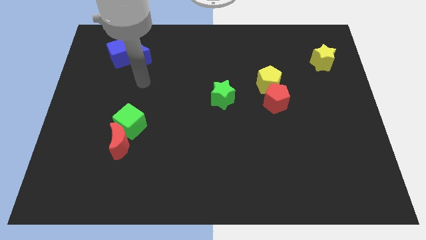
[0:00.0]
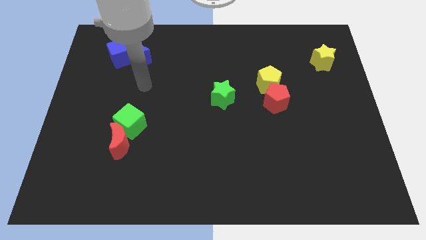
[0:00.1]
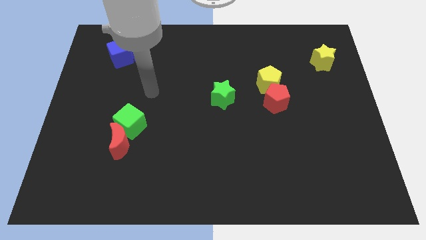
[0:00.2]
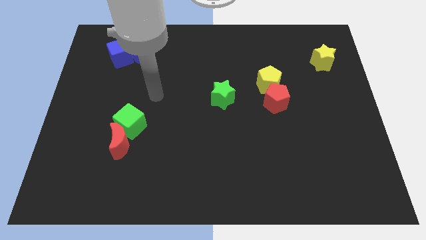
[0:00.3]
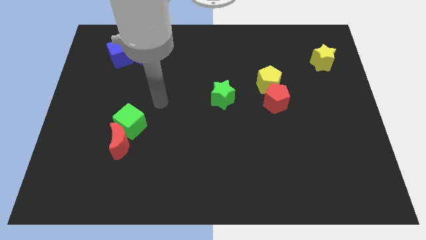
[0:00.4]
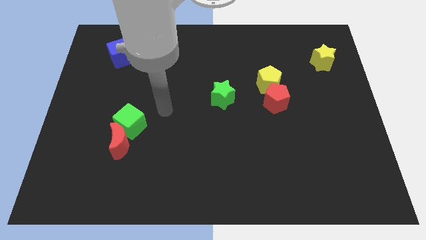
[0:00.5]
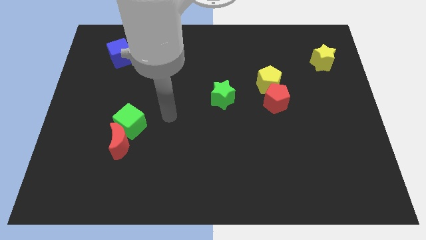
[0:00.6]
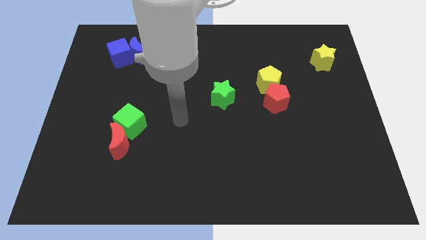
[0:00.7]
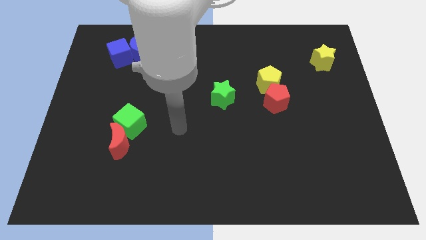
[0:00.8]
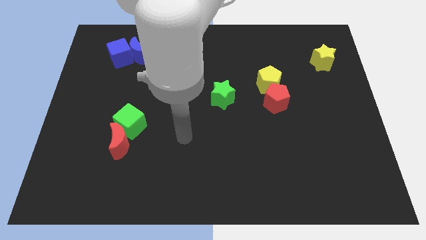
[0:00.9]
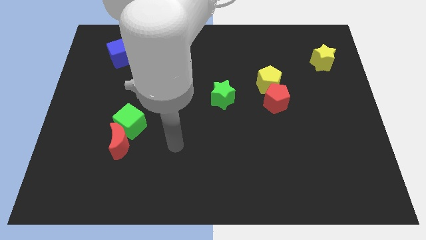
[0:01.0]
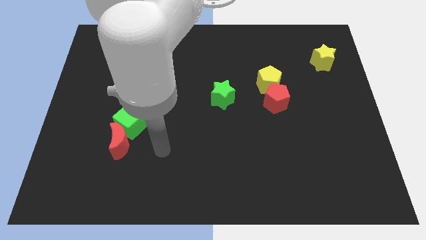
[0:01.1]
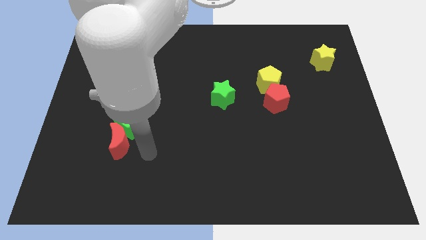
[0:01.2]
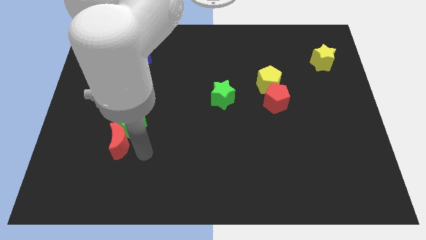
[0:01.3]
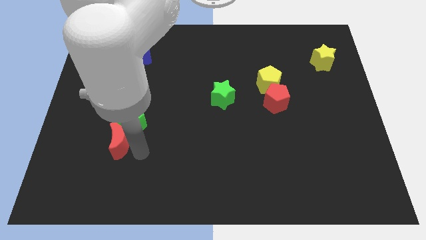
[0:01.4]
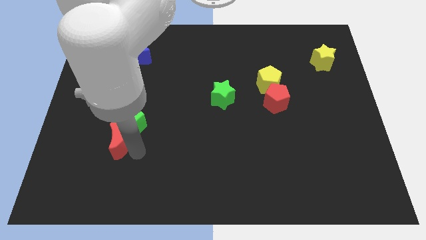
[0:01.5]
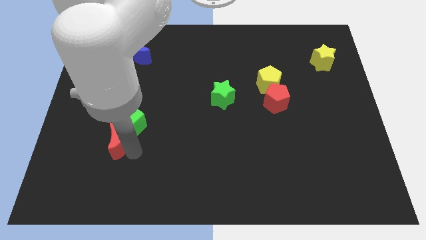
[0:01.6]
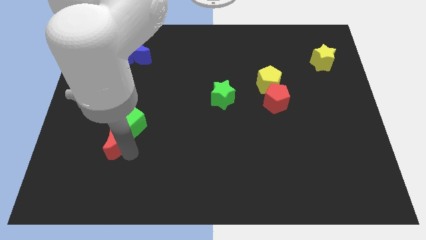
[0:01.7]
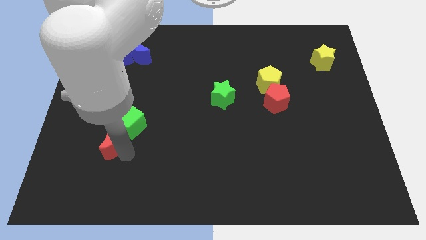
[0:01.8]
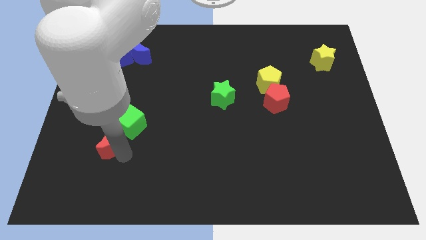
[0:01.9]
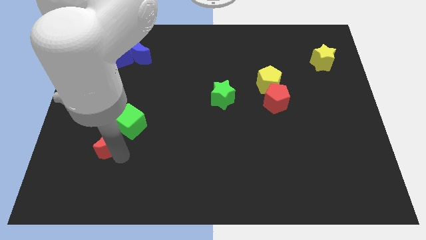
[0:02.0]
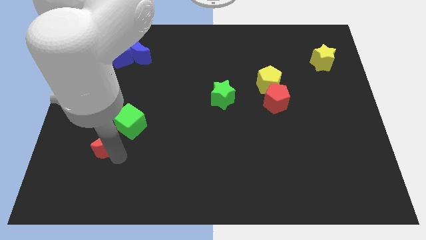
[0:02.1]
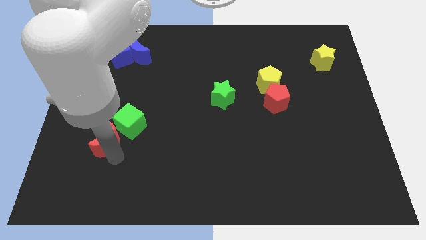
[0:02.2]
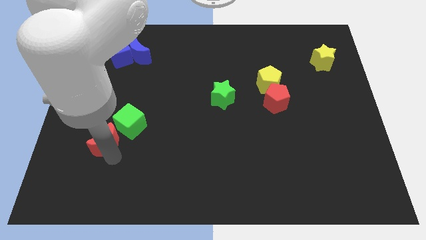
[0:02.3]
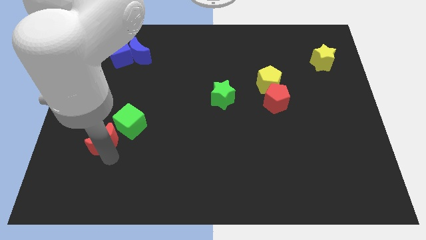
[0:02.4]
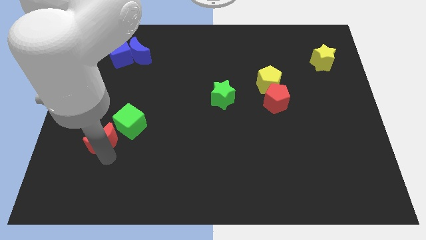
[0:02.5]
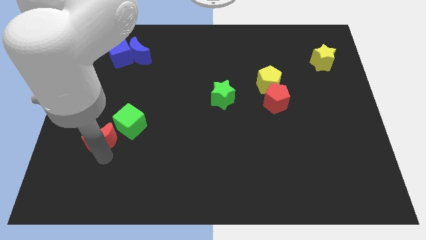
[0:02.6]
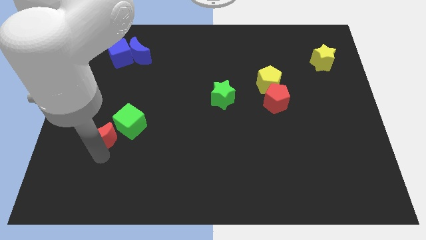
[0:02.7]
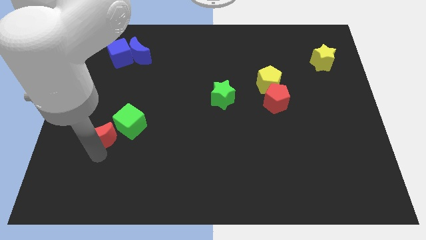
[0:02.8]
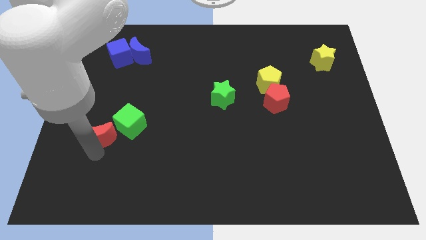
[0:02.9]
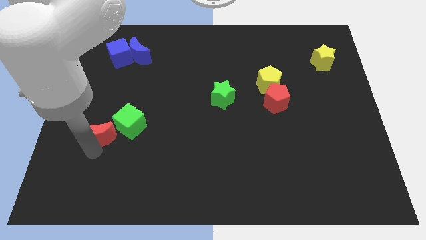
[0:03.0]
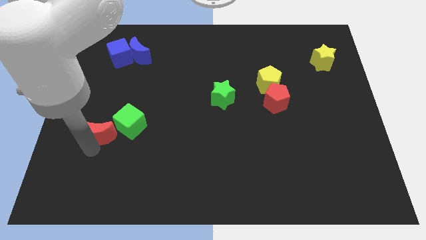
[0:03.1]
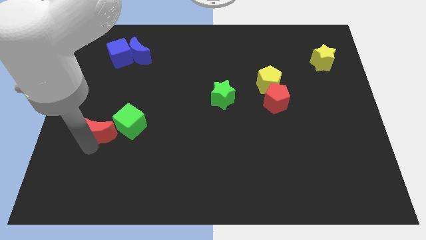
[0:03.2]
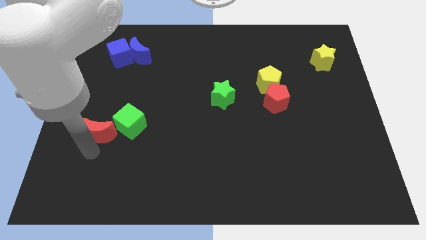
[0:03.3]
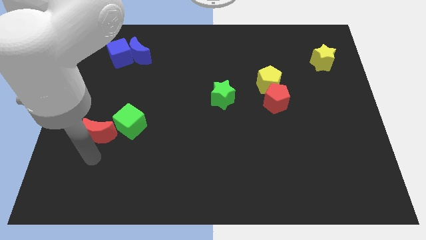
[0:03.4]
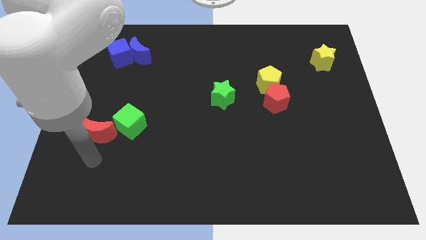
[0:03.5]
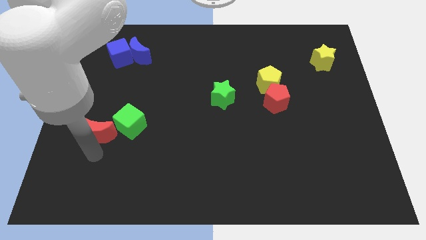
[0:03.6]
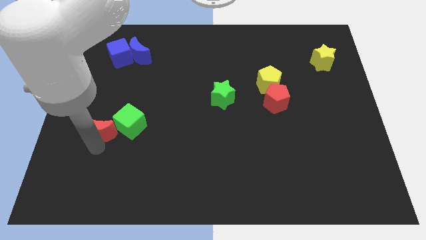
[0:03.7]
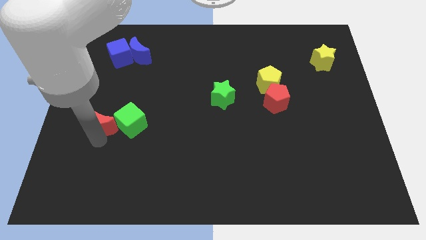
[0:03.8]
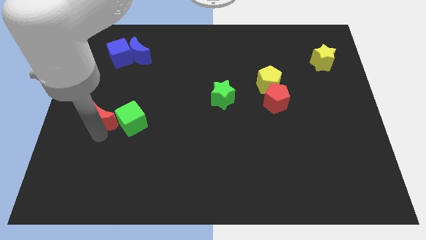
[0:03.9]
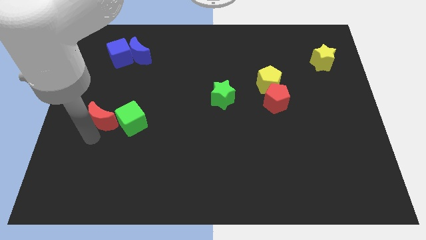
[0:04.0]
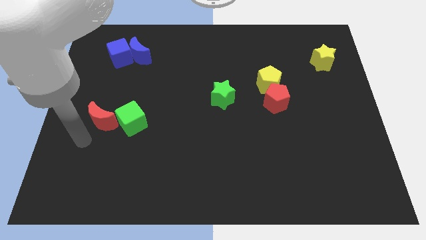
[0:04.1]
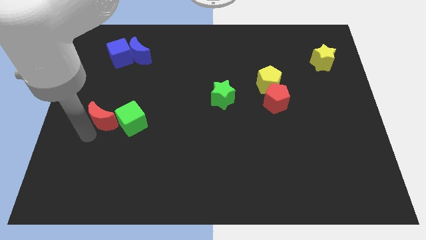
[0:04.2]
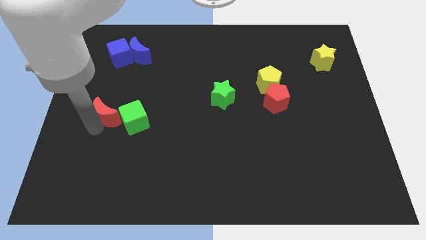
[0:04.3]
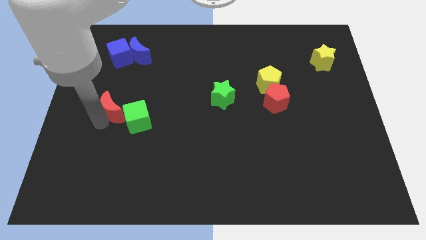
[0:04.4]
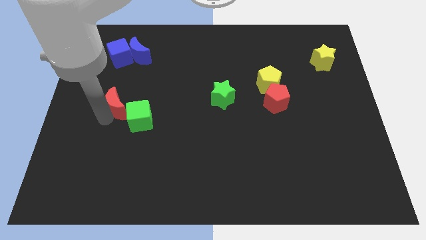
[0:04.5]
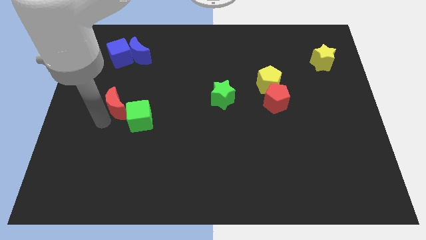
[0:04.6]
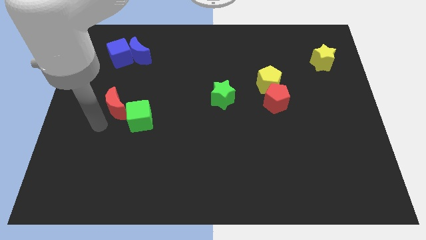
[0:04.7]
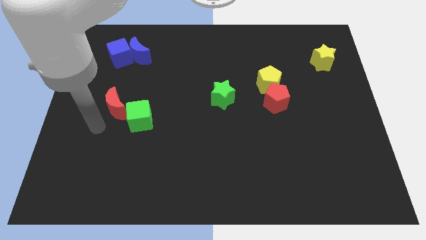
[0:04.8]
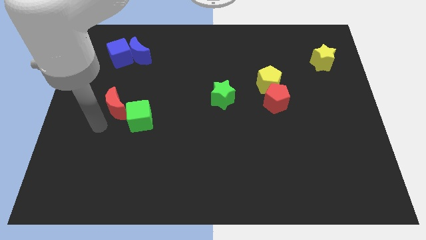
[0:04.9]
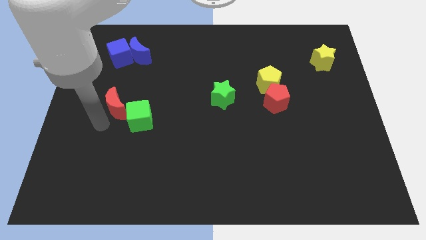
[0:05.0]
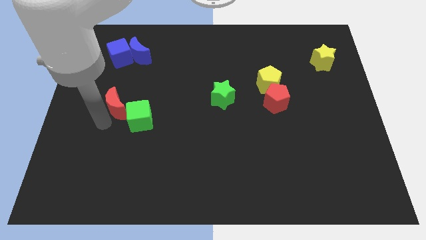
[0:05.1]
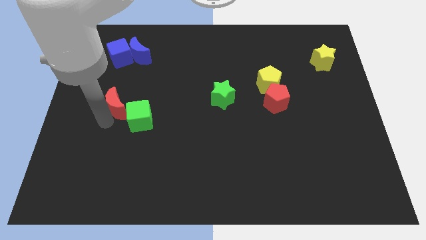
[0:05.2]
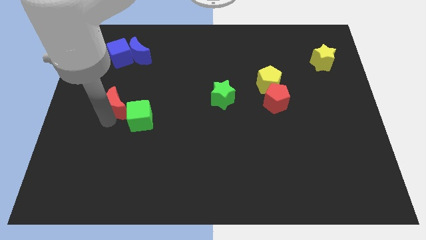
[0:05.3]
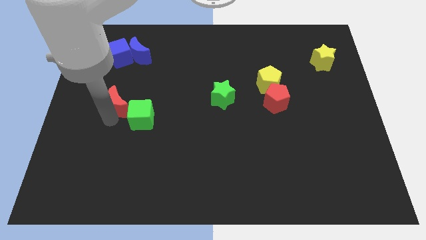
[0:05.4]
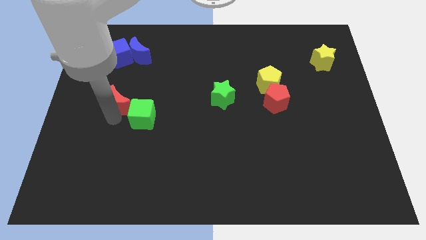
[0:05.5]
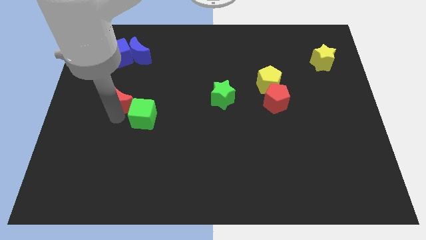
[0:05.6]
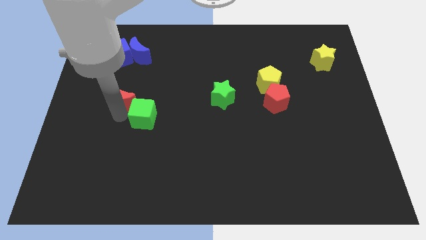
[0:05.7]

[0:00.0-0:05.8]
put the red moon to the bottom side of the blue moon

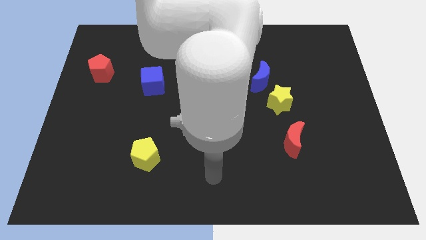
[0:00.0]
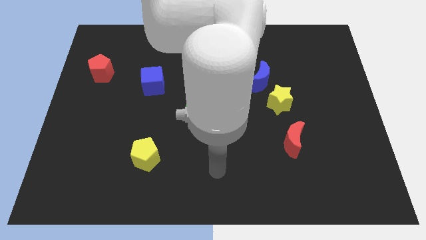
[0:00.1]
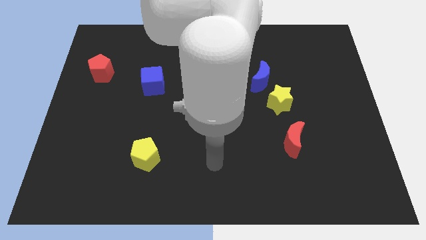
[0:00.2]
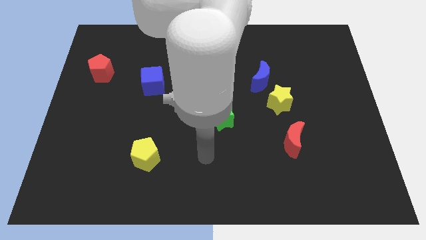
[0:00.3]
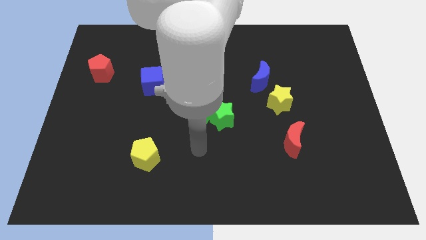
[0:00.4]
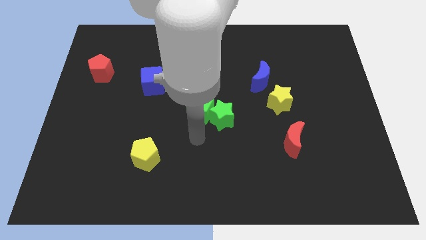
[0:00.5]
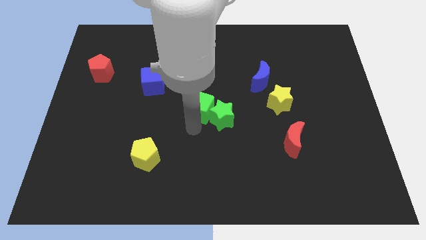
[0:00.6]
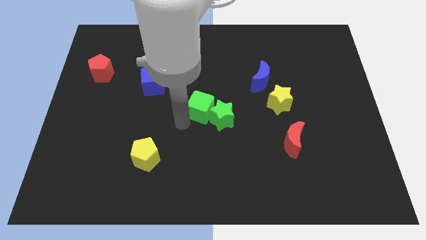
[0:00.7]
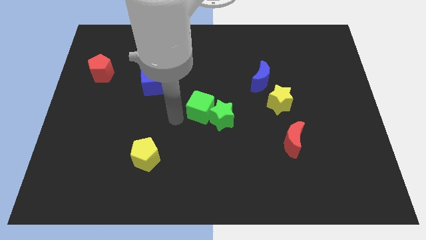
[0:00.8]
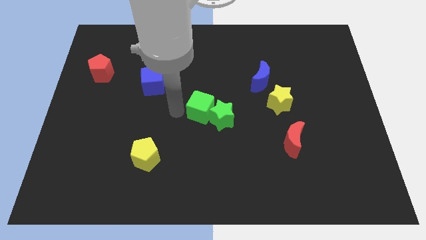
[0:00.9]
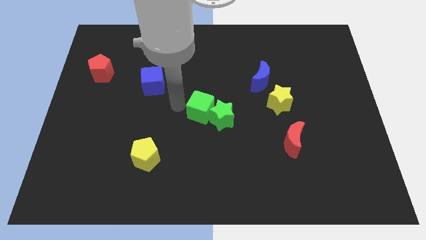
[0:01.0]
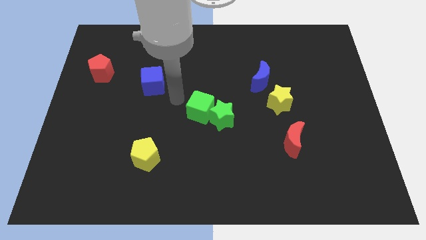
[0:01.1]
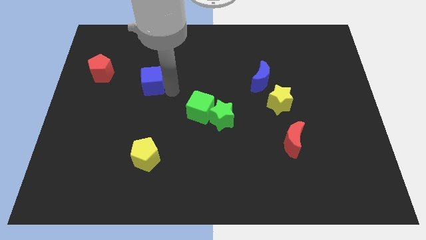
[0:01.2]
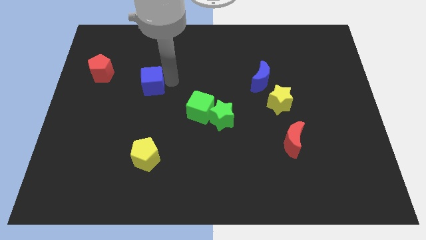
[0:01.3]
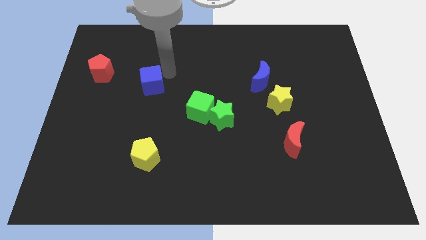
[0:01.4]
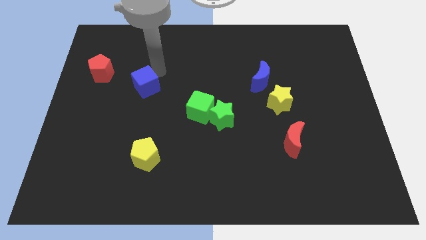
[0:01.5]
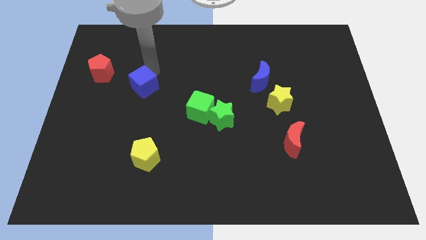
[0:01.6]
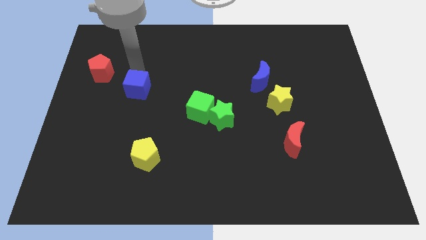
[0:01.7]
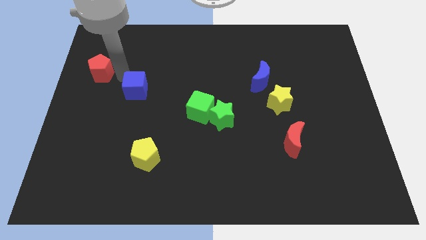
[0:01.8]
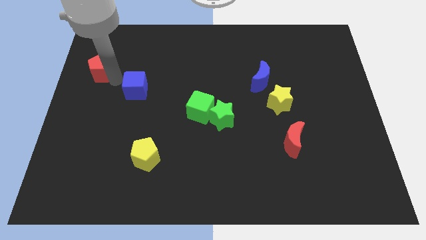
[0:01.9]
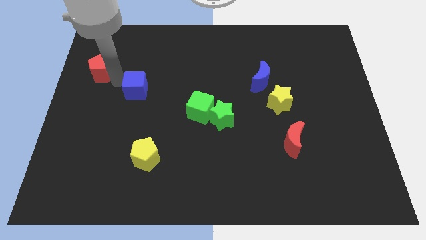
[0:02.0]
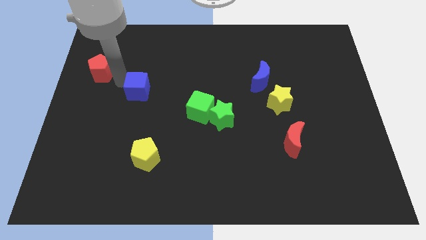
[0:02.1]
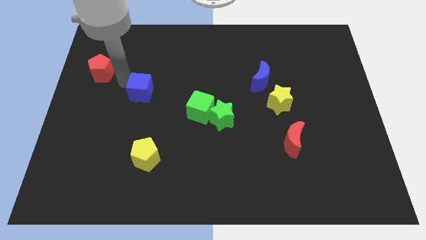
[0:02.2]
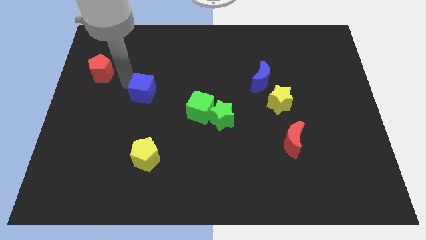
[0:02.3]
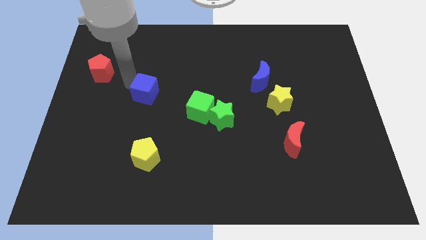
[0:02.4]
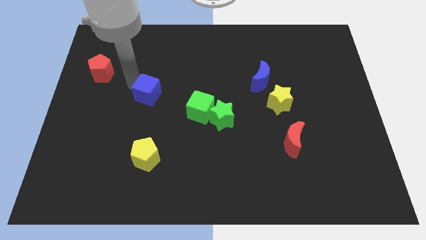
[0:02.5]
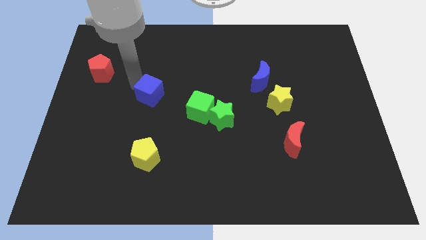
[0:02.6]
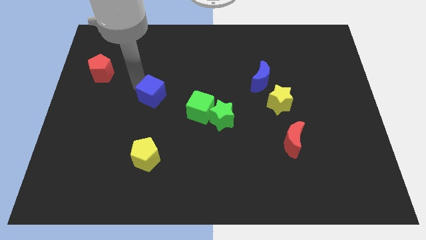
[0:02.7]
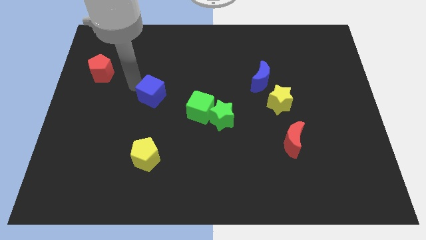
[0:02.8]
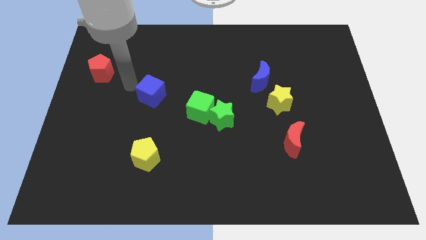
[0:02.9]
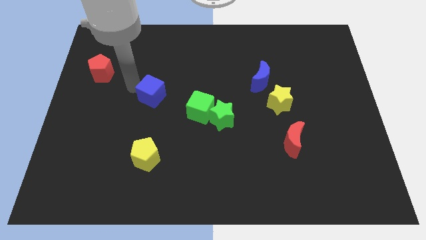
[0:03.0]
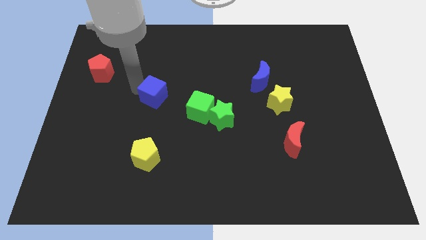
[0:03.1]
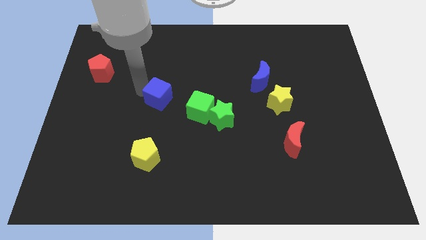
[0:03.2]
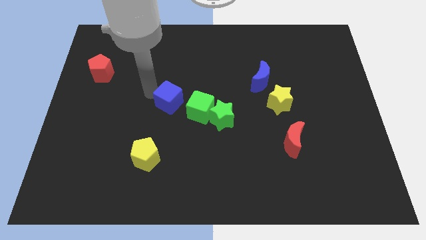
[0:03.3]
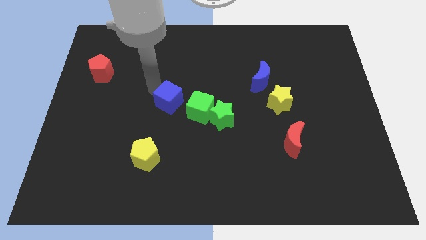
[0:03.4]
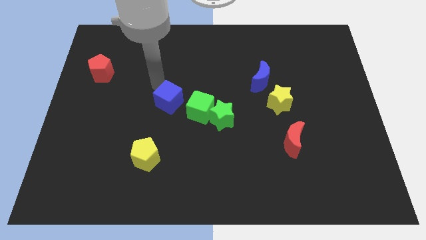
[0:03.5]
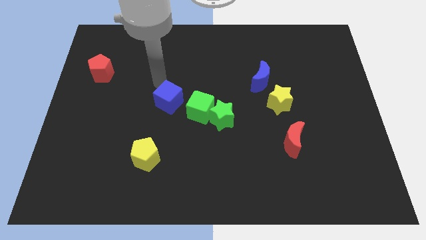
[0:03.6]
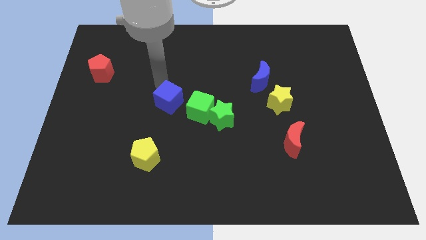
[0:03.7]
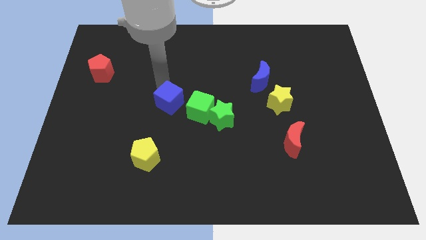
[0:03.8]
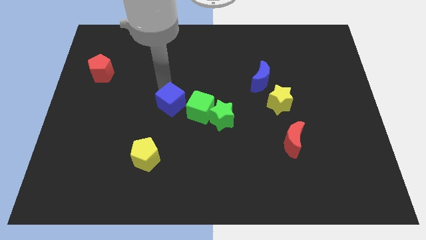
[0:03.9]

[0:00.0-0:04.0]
put the blue cube to the left of the green star
